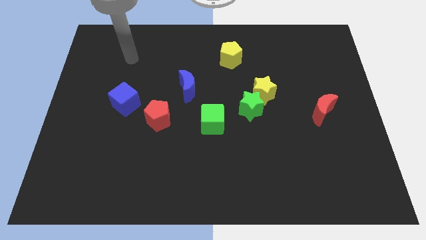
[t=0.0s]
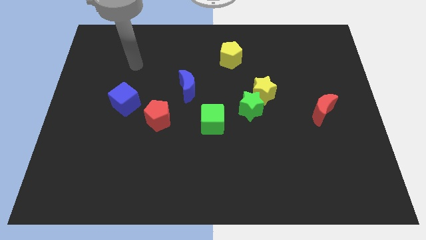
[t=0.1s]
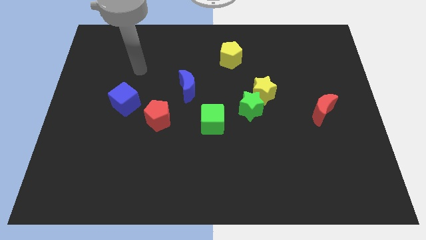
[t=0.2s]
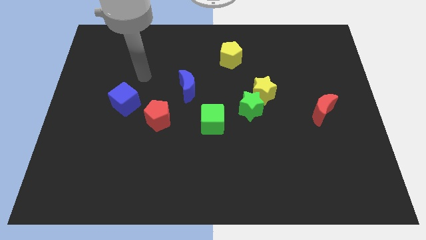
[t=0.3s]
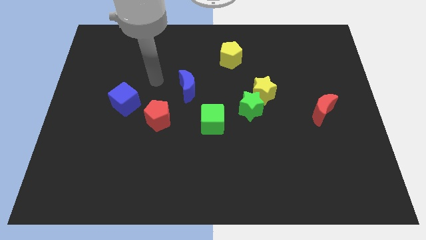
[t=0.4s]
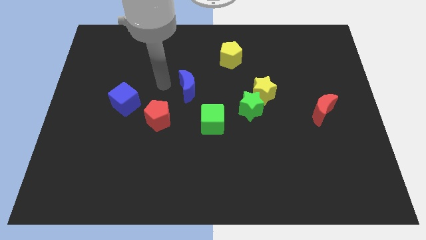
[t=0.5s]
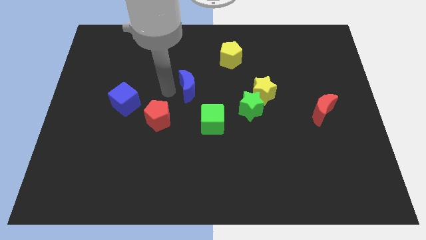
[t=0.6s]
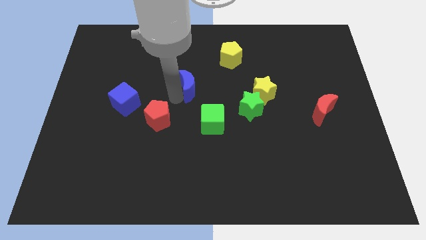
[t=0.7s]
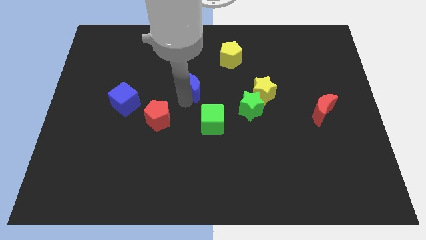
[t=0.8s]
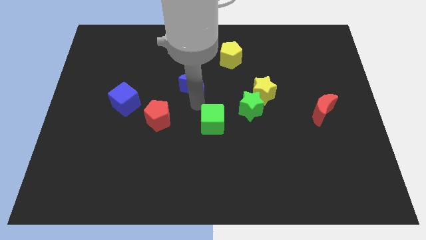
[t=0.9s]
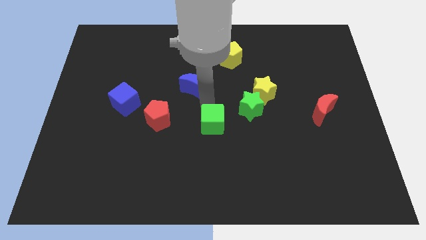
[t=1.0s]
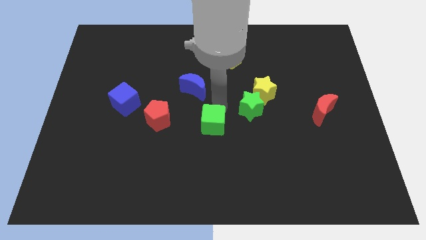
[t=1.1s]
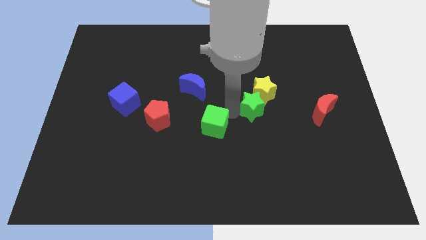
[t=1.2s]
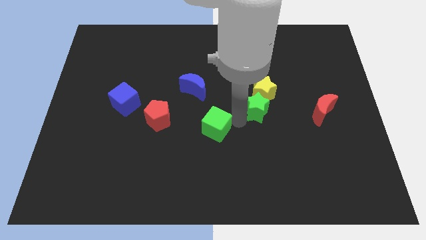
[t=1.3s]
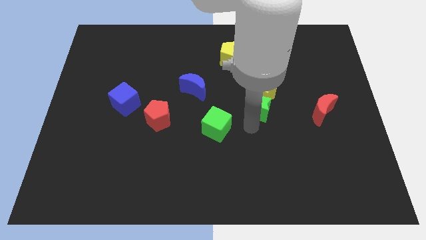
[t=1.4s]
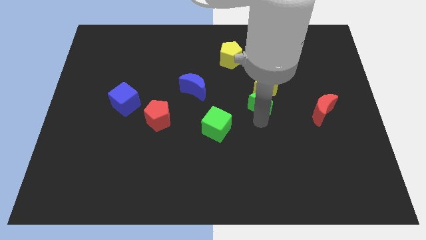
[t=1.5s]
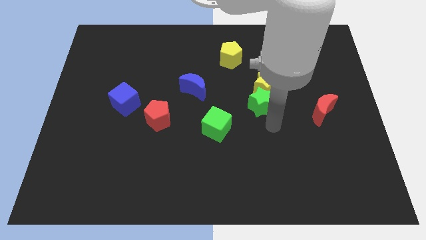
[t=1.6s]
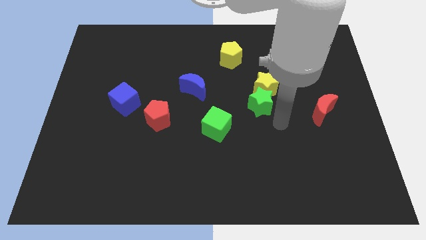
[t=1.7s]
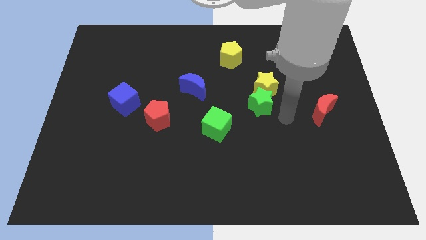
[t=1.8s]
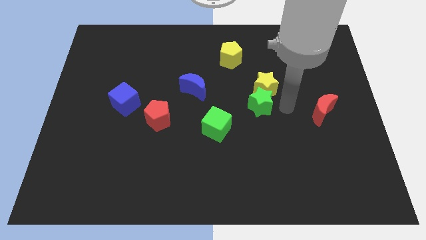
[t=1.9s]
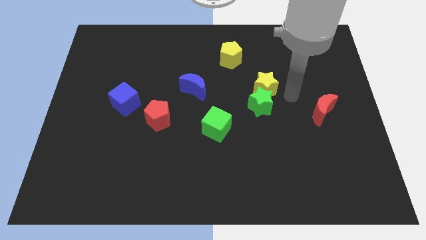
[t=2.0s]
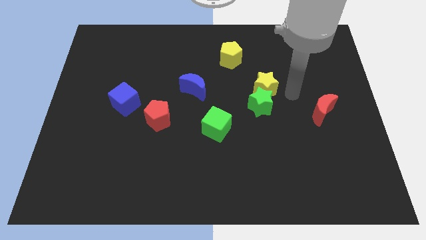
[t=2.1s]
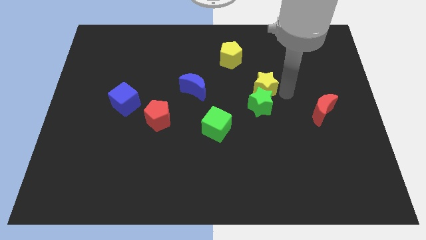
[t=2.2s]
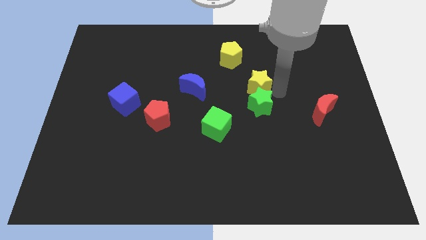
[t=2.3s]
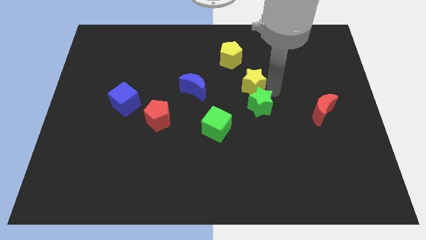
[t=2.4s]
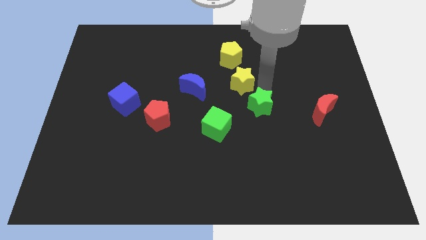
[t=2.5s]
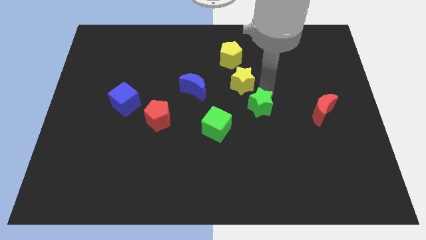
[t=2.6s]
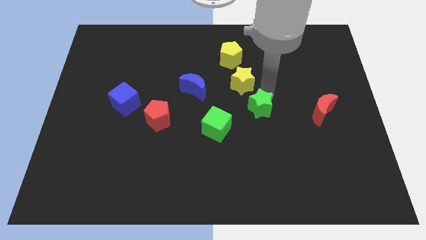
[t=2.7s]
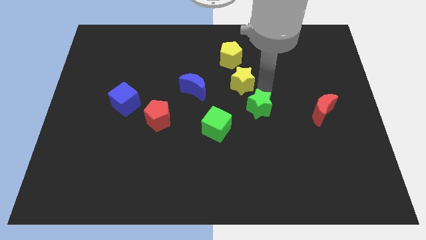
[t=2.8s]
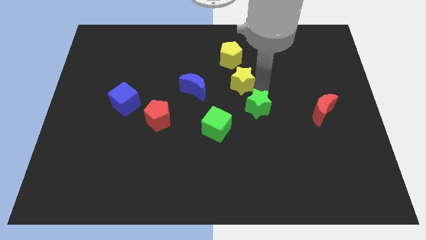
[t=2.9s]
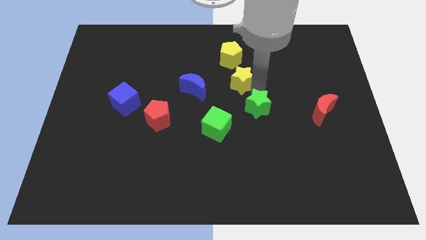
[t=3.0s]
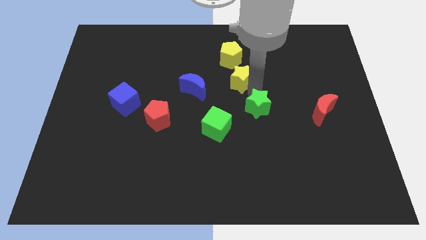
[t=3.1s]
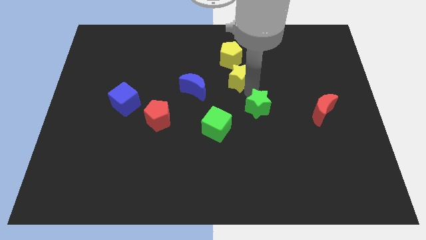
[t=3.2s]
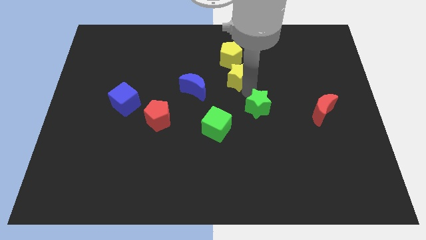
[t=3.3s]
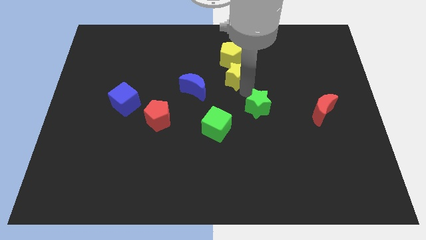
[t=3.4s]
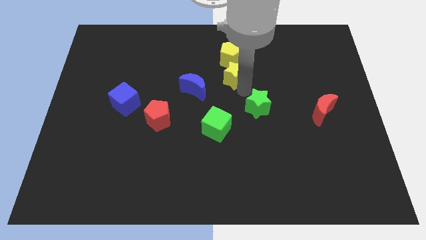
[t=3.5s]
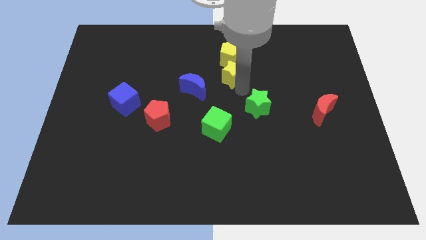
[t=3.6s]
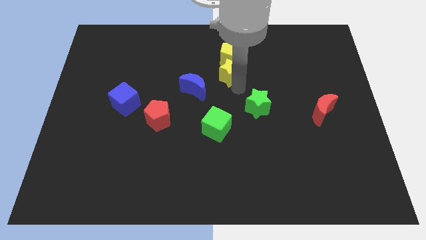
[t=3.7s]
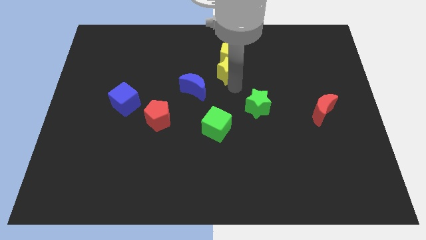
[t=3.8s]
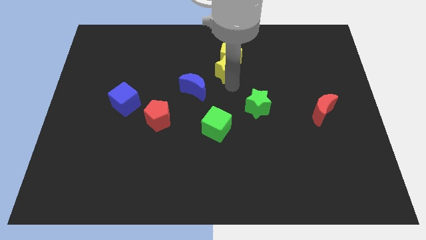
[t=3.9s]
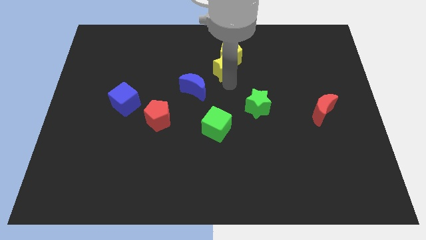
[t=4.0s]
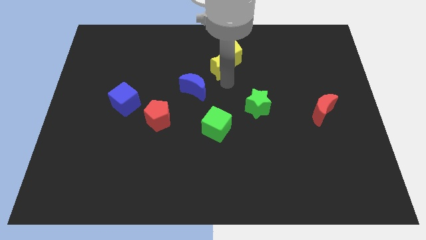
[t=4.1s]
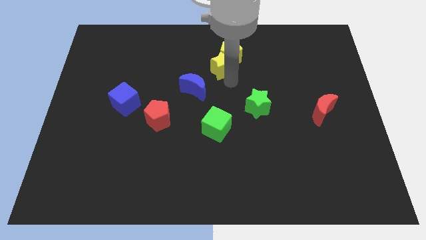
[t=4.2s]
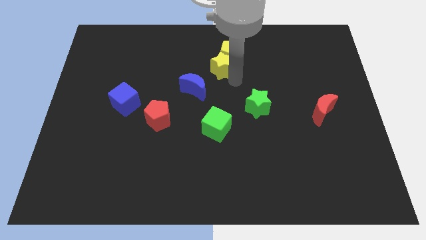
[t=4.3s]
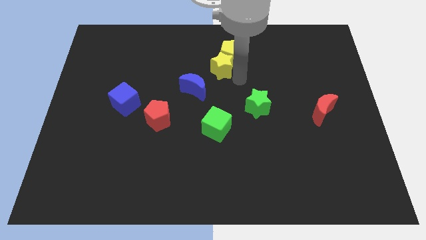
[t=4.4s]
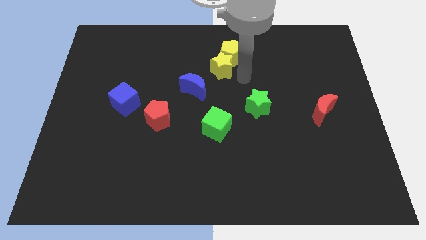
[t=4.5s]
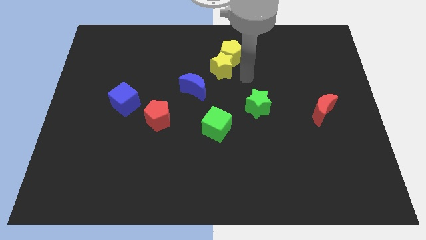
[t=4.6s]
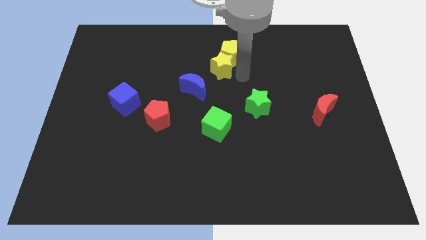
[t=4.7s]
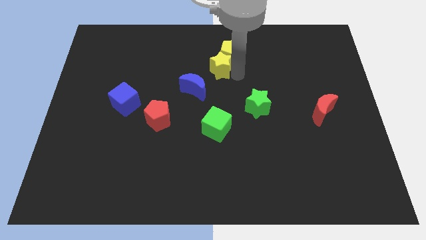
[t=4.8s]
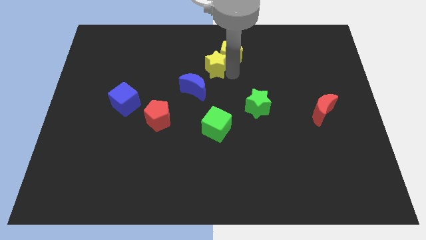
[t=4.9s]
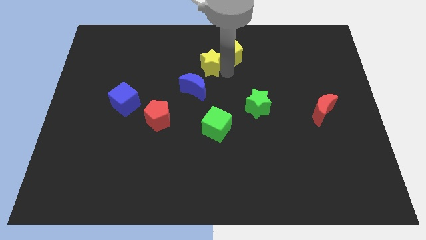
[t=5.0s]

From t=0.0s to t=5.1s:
push the yellow star to the top of the blue moon

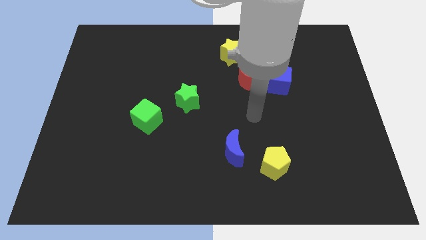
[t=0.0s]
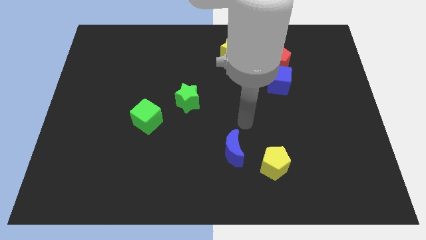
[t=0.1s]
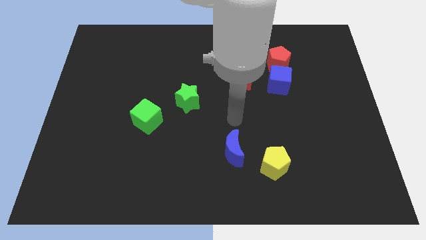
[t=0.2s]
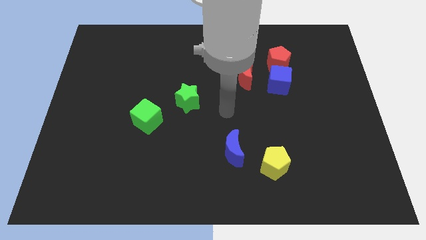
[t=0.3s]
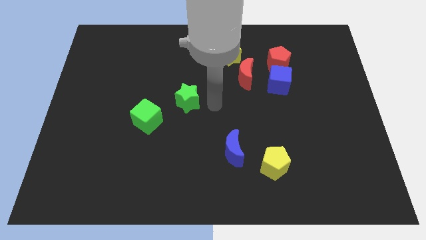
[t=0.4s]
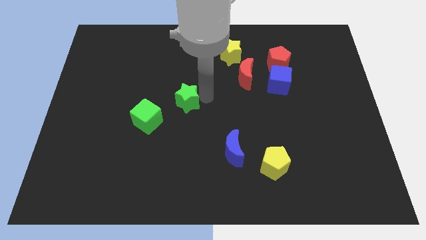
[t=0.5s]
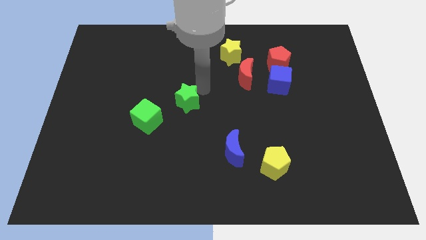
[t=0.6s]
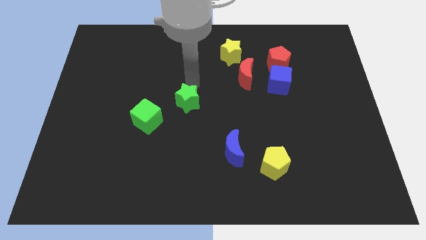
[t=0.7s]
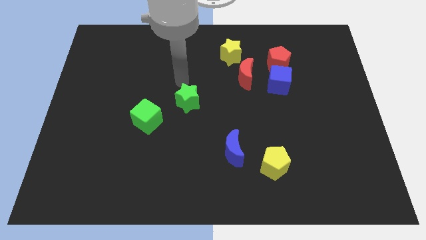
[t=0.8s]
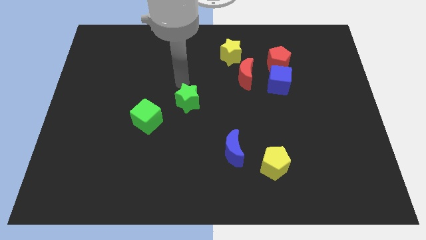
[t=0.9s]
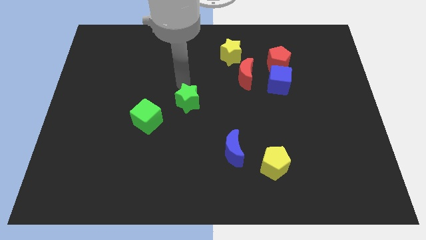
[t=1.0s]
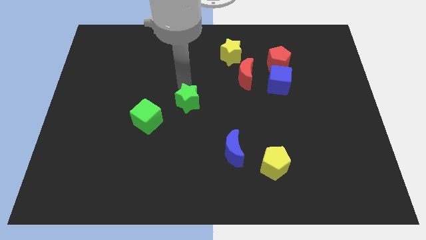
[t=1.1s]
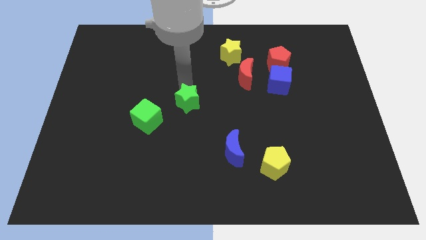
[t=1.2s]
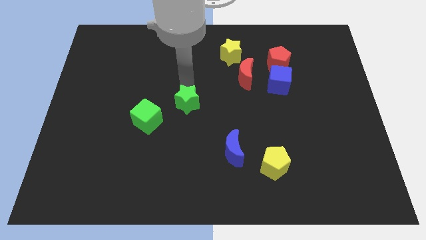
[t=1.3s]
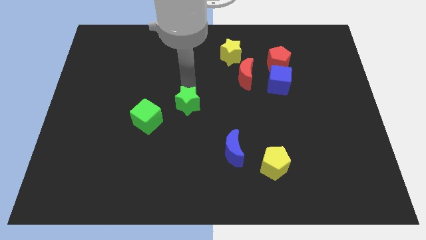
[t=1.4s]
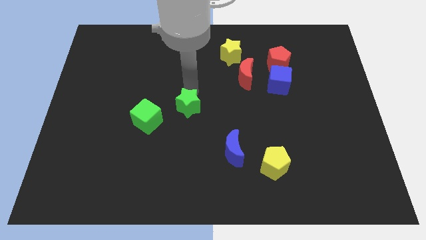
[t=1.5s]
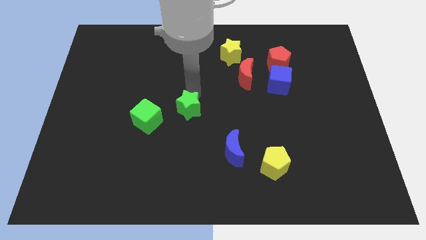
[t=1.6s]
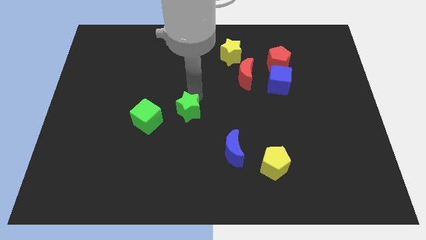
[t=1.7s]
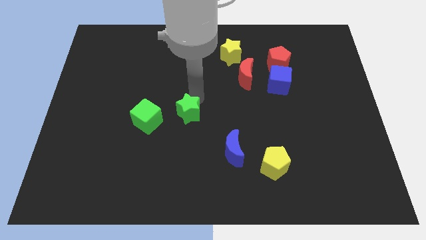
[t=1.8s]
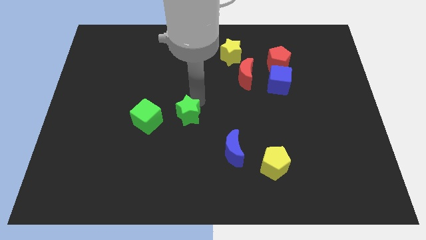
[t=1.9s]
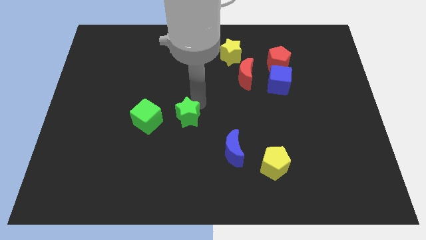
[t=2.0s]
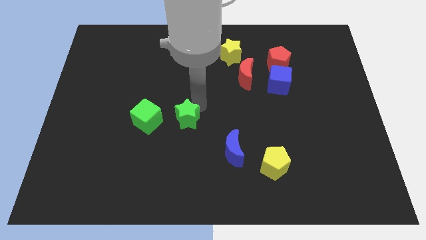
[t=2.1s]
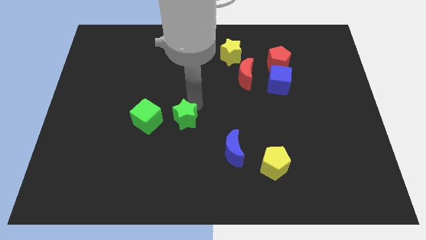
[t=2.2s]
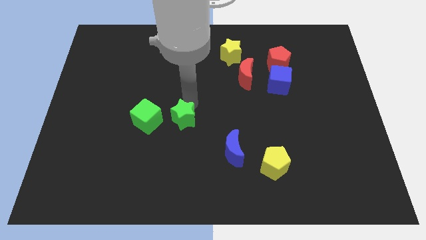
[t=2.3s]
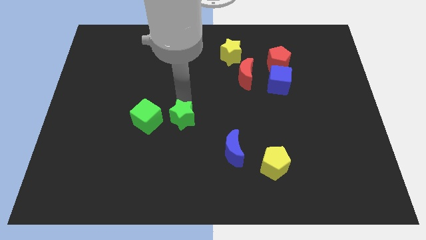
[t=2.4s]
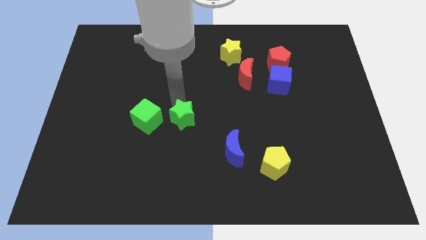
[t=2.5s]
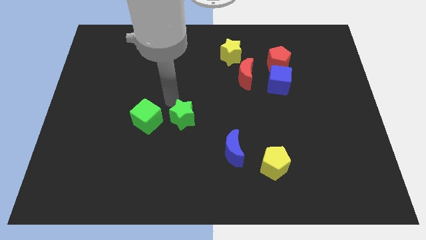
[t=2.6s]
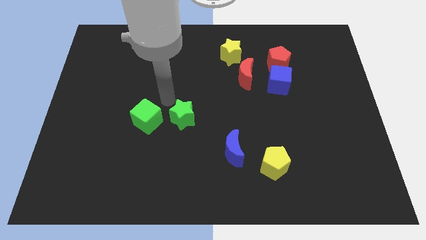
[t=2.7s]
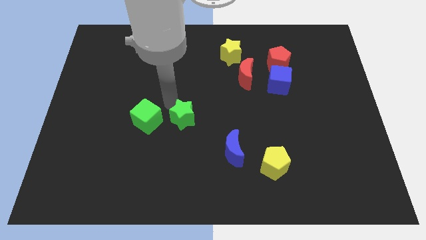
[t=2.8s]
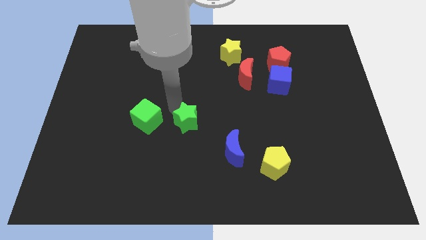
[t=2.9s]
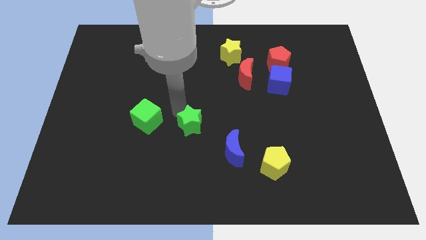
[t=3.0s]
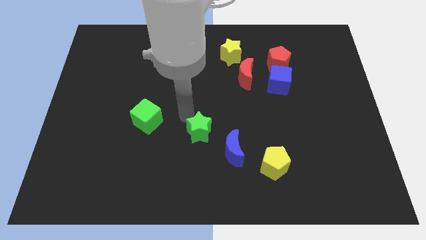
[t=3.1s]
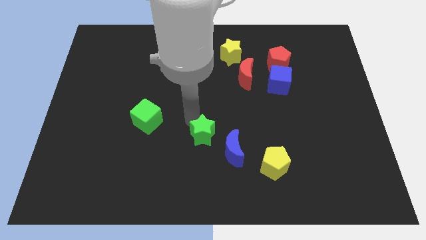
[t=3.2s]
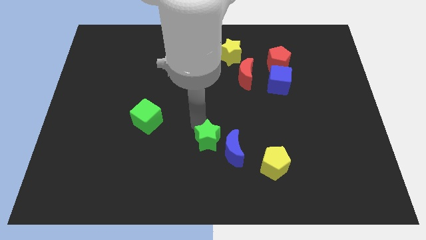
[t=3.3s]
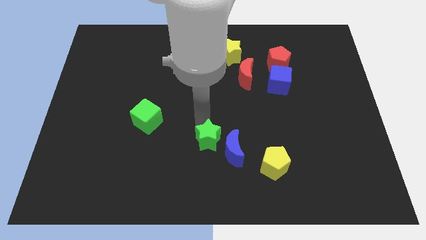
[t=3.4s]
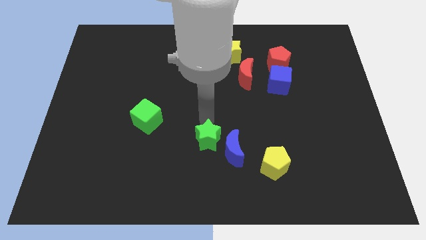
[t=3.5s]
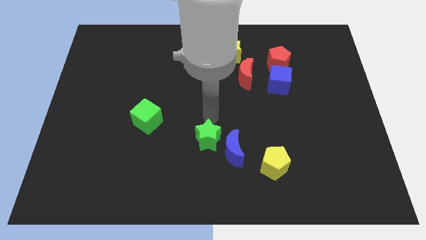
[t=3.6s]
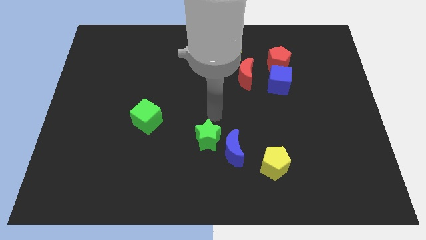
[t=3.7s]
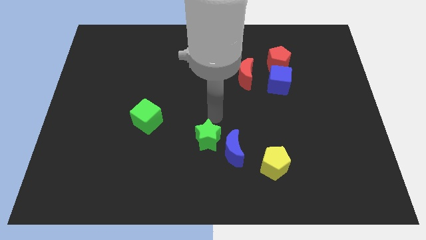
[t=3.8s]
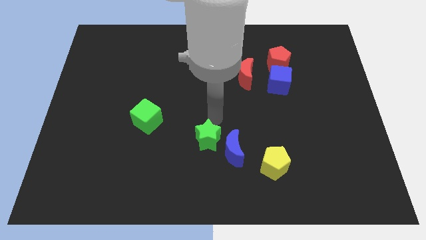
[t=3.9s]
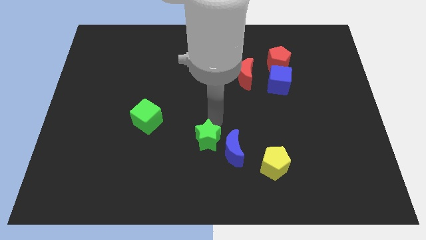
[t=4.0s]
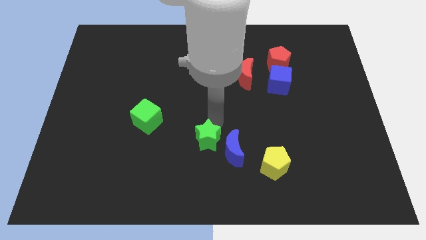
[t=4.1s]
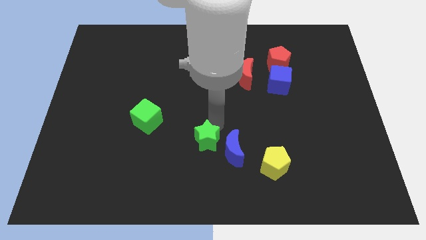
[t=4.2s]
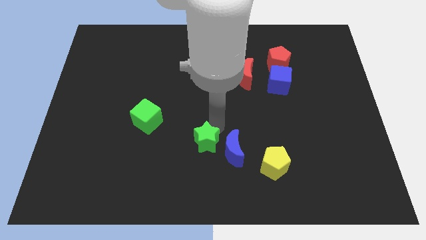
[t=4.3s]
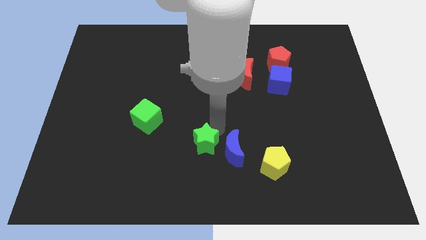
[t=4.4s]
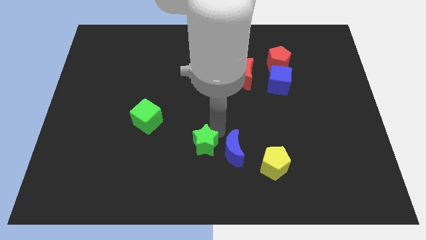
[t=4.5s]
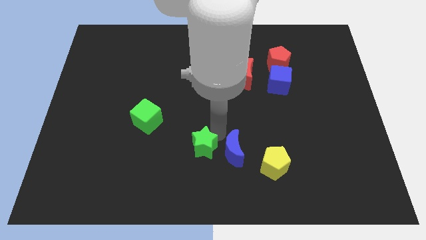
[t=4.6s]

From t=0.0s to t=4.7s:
slide the green star to the bottom left of the blue moon
